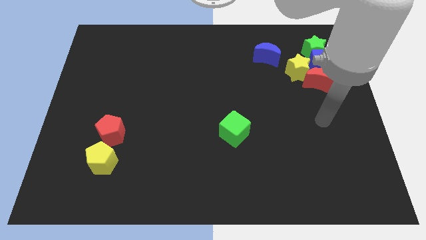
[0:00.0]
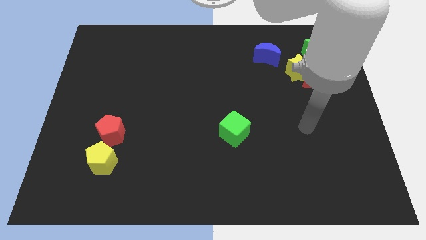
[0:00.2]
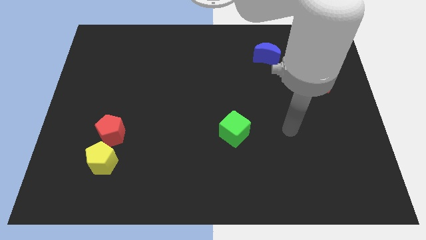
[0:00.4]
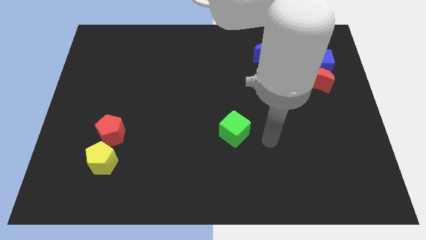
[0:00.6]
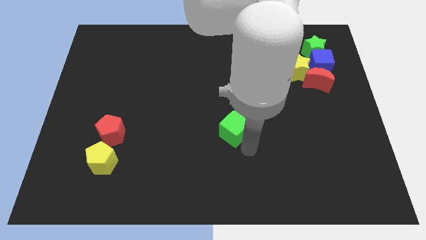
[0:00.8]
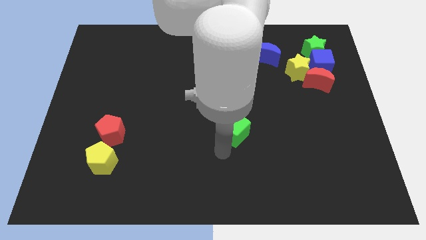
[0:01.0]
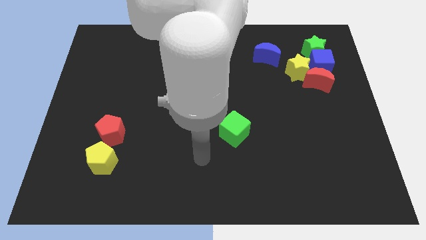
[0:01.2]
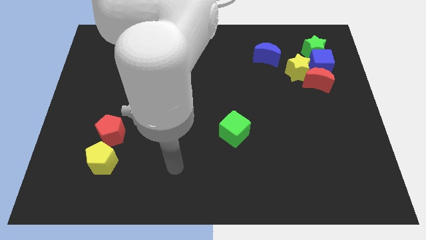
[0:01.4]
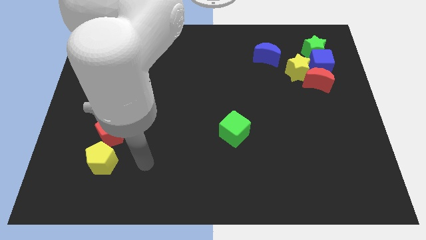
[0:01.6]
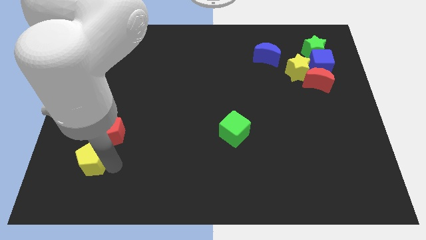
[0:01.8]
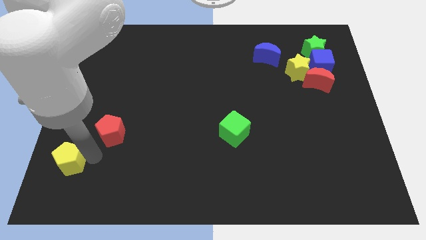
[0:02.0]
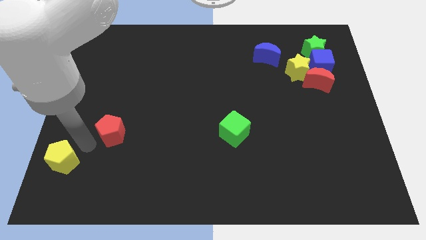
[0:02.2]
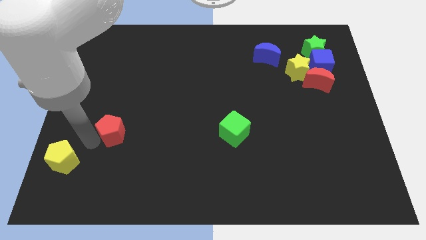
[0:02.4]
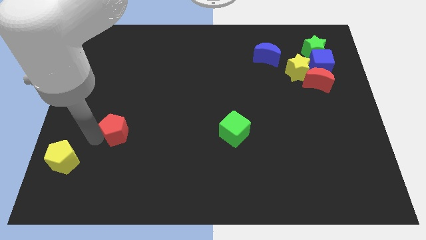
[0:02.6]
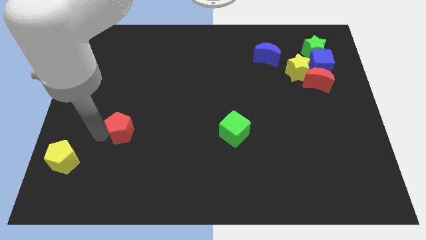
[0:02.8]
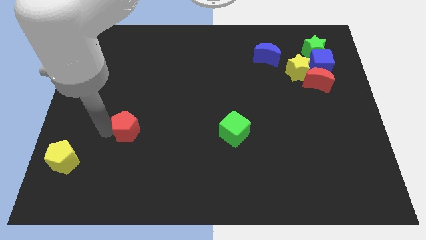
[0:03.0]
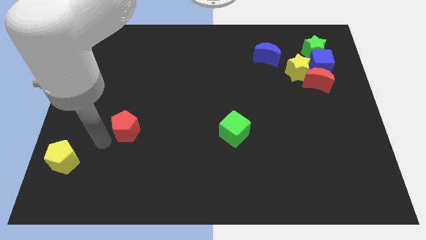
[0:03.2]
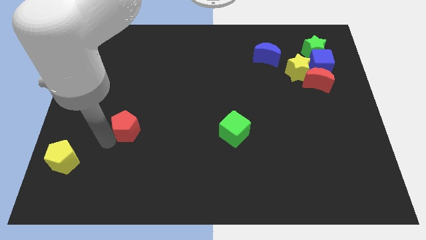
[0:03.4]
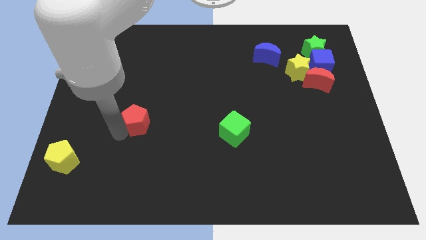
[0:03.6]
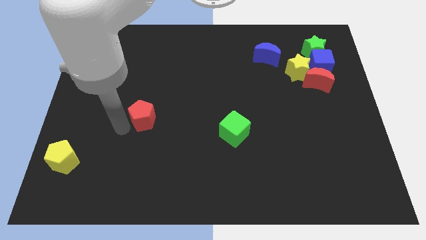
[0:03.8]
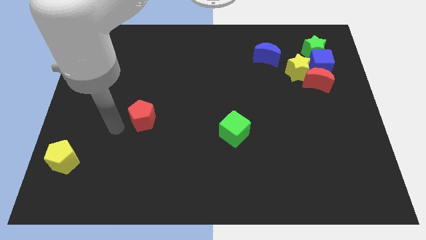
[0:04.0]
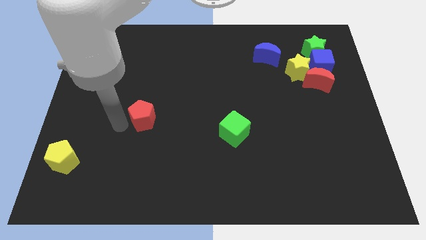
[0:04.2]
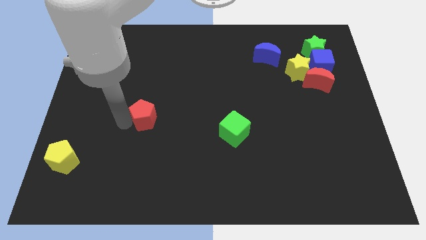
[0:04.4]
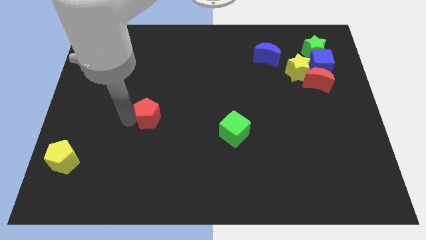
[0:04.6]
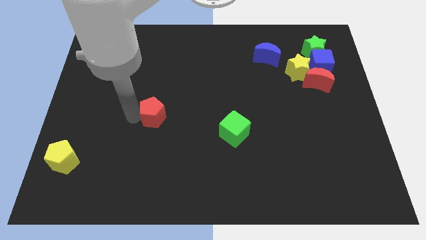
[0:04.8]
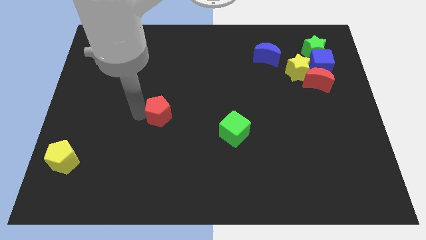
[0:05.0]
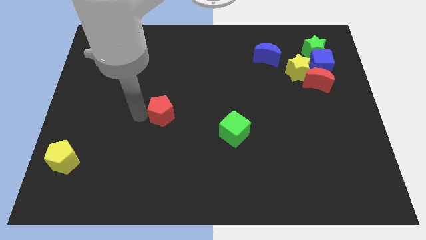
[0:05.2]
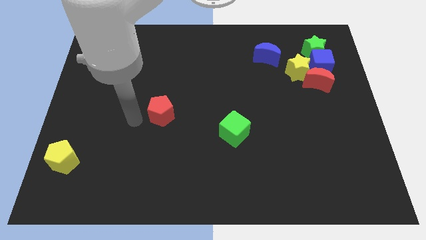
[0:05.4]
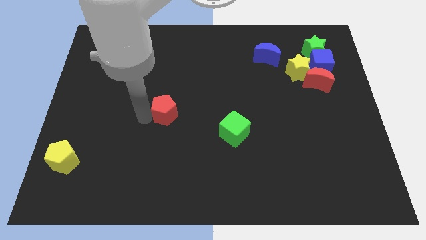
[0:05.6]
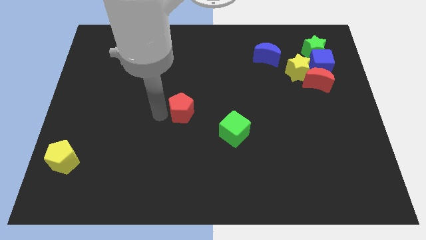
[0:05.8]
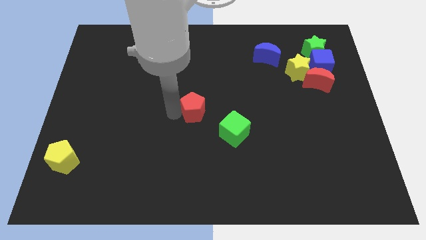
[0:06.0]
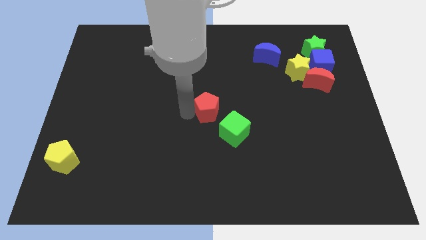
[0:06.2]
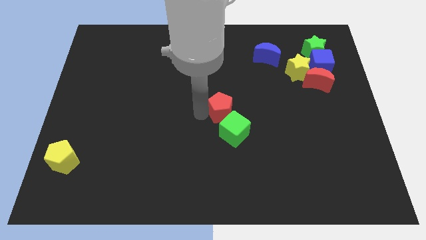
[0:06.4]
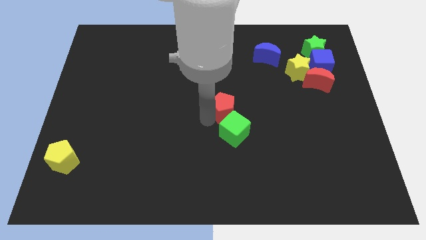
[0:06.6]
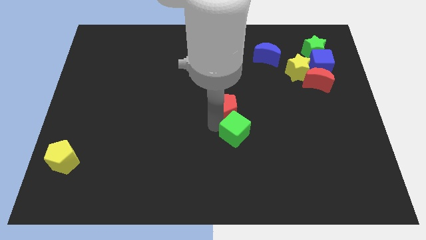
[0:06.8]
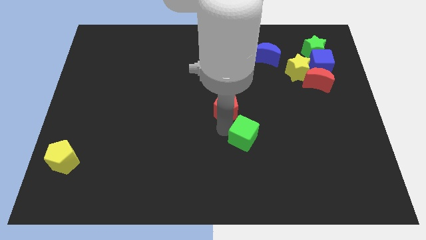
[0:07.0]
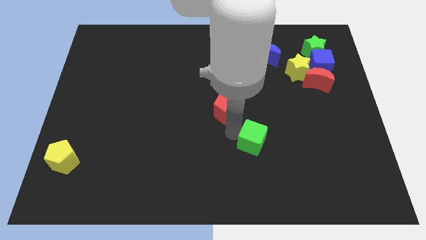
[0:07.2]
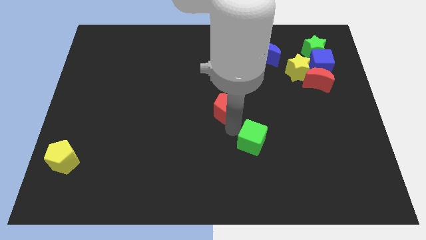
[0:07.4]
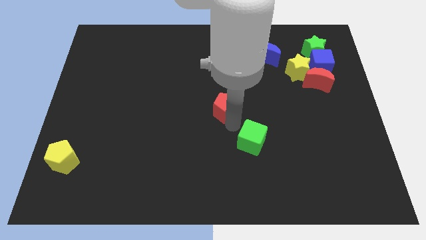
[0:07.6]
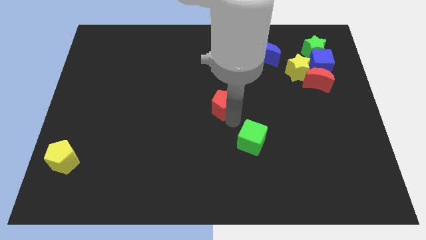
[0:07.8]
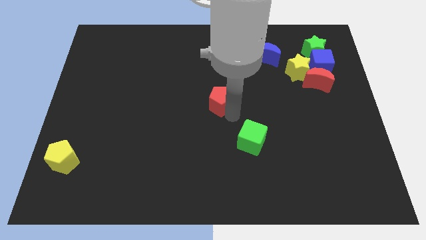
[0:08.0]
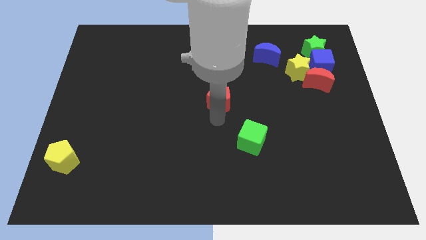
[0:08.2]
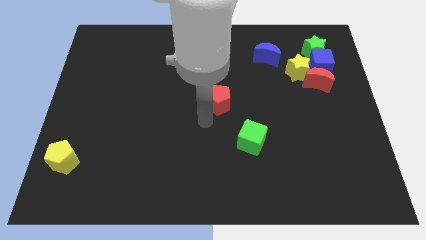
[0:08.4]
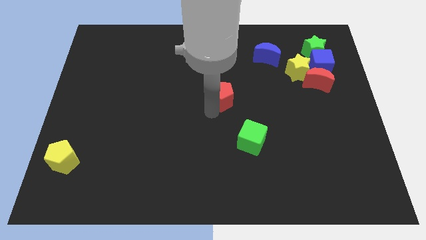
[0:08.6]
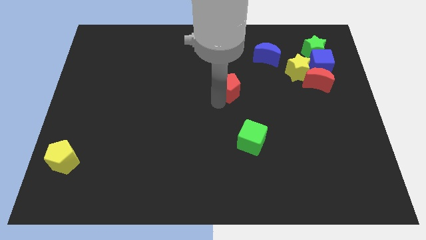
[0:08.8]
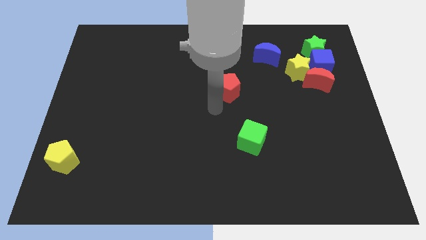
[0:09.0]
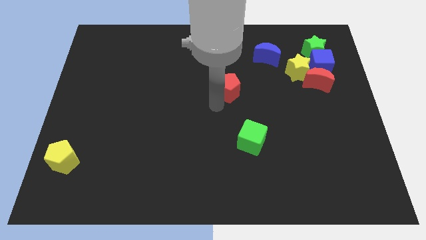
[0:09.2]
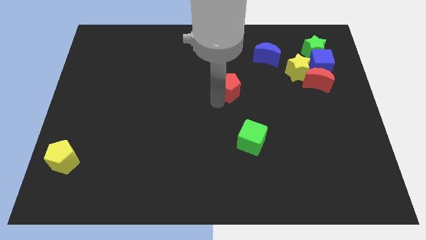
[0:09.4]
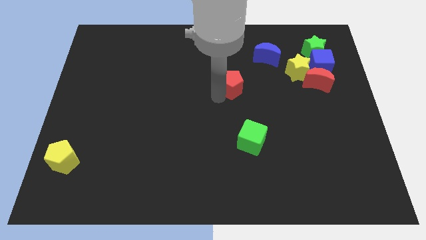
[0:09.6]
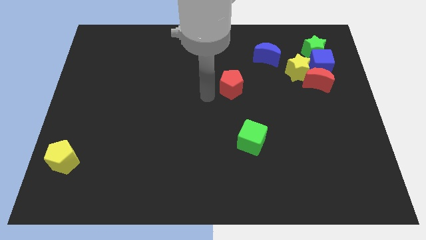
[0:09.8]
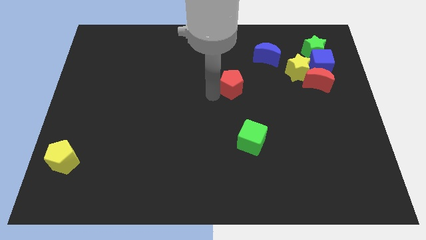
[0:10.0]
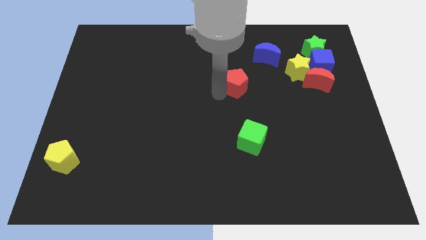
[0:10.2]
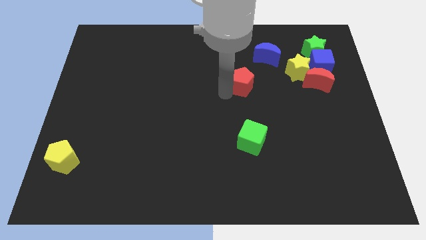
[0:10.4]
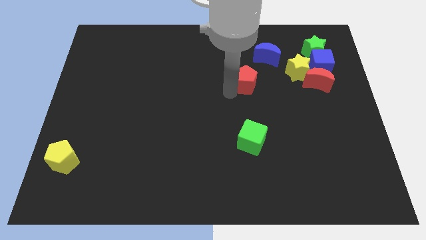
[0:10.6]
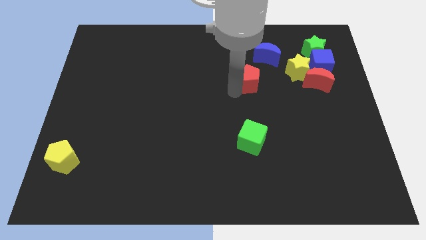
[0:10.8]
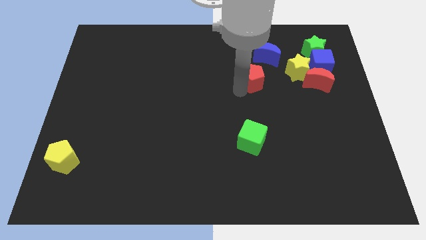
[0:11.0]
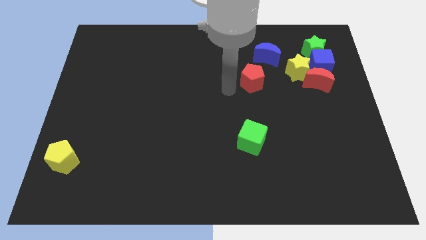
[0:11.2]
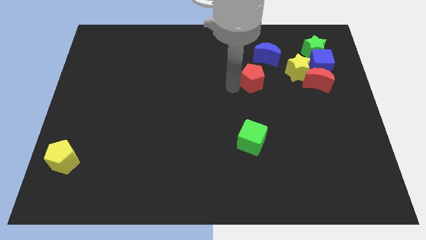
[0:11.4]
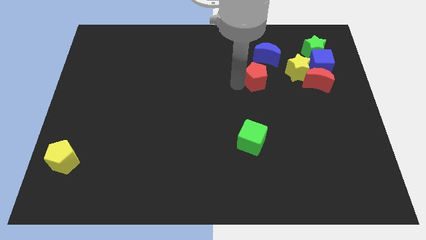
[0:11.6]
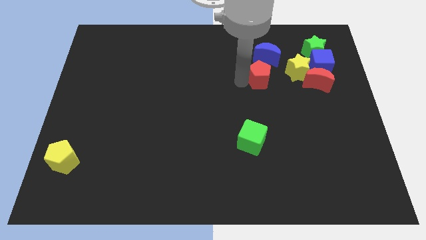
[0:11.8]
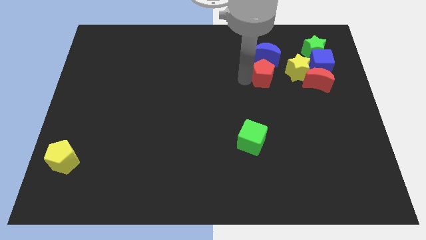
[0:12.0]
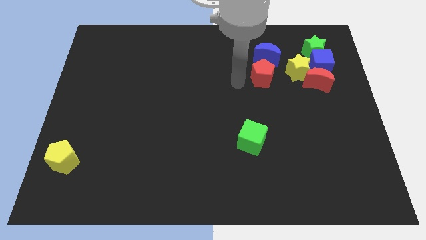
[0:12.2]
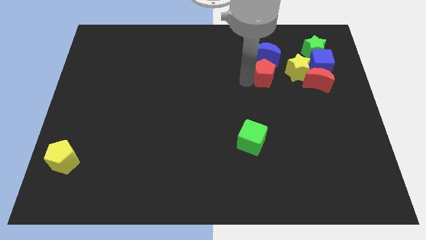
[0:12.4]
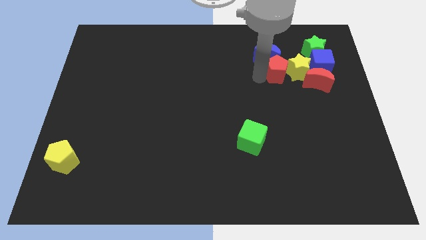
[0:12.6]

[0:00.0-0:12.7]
slide the red pentagon to the yellow star

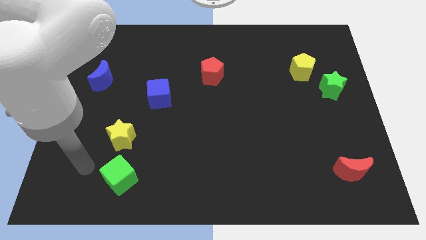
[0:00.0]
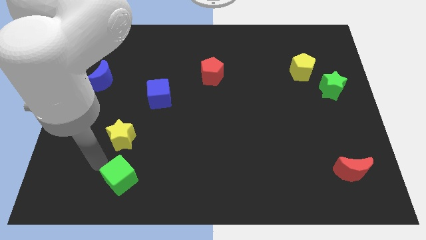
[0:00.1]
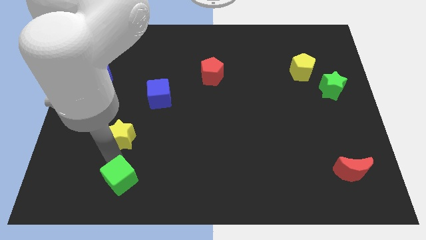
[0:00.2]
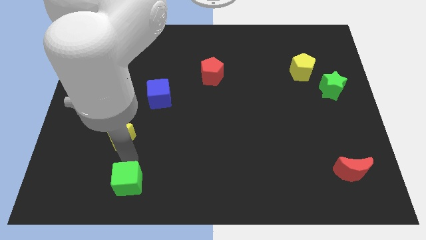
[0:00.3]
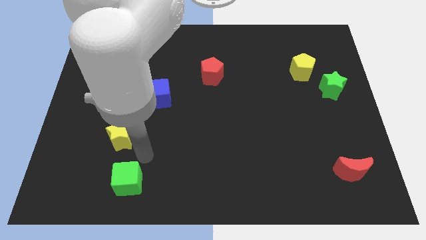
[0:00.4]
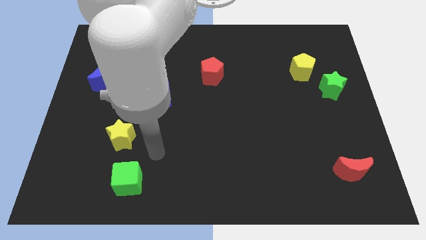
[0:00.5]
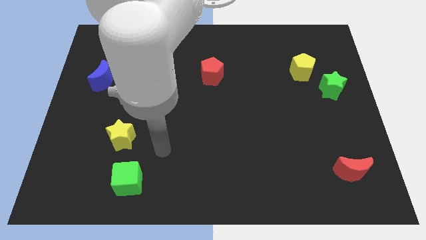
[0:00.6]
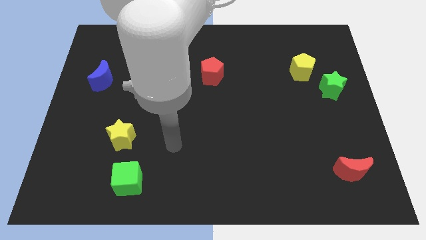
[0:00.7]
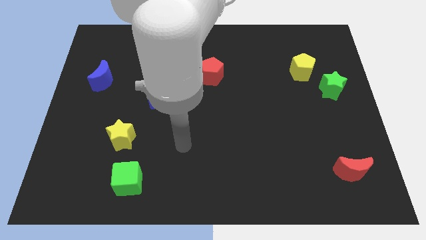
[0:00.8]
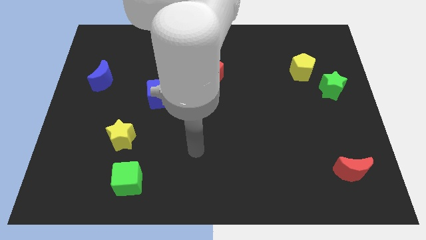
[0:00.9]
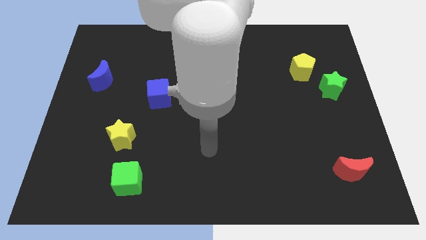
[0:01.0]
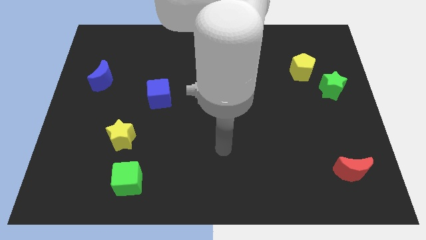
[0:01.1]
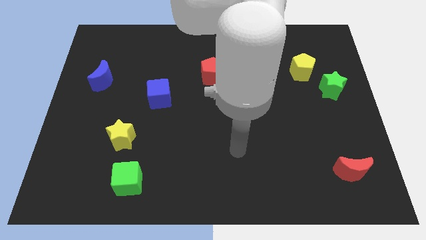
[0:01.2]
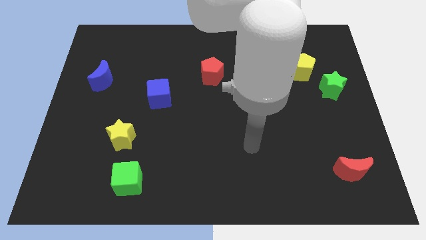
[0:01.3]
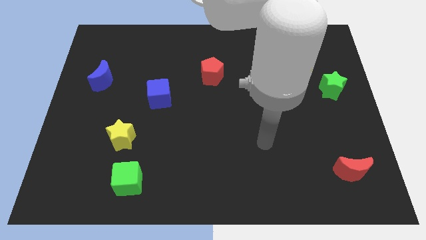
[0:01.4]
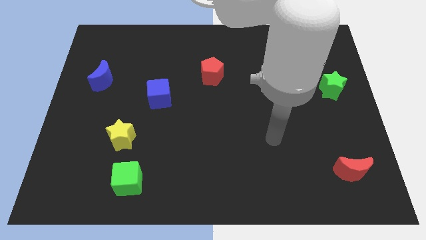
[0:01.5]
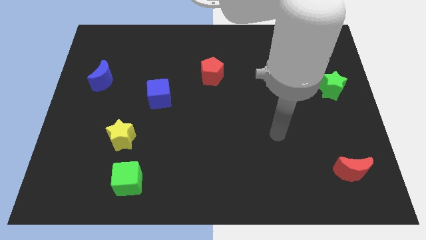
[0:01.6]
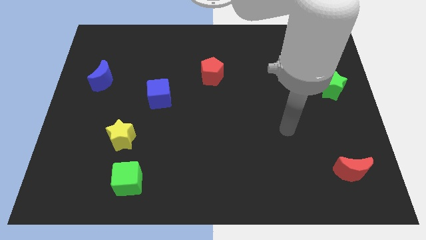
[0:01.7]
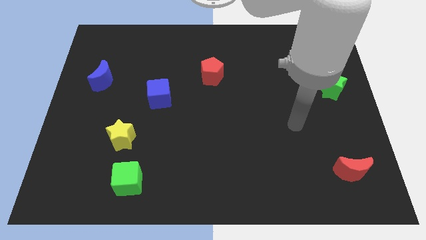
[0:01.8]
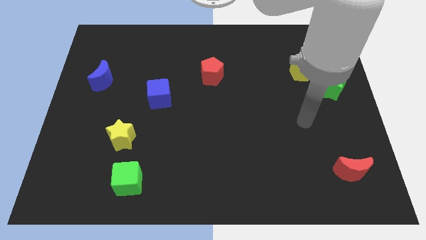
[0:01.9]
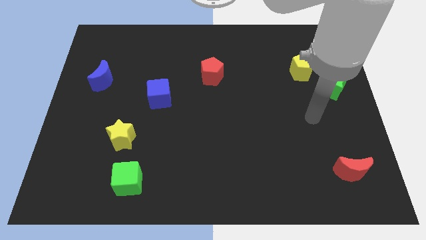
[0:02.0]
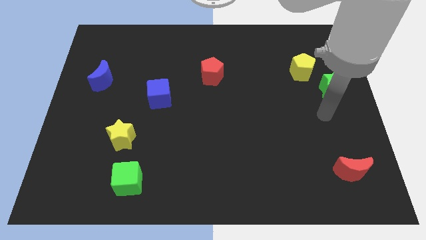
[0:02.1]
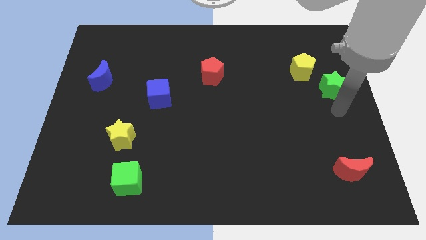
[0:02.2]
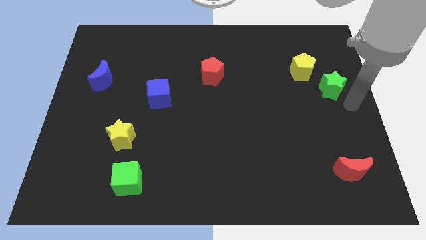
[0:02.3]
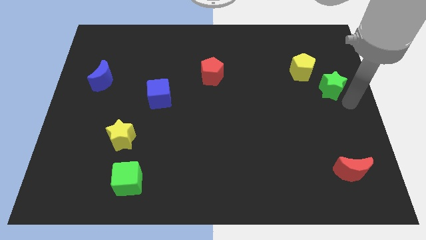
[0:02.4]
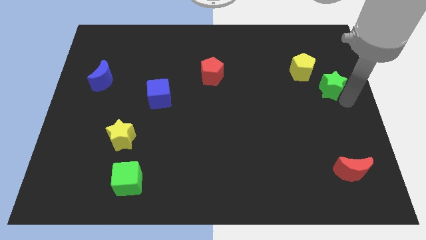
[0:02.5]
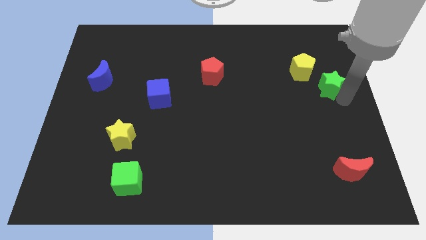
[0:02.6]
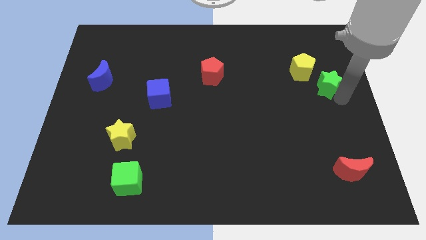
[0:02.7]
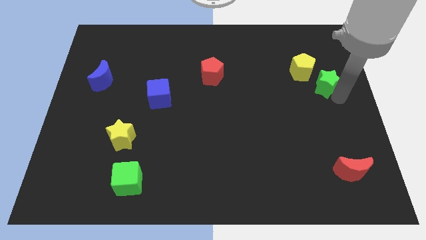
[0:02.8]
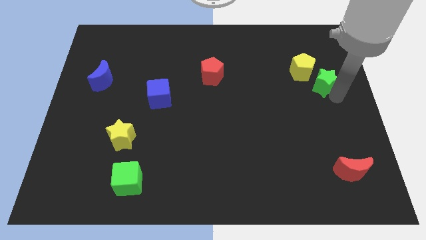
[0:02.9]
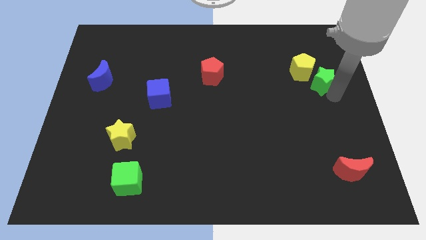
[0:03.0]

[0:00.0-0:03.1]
push the green star to the yellow pentagon
